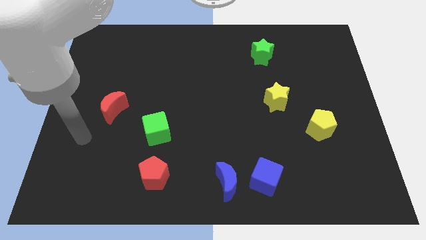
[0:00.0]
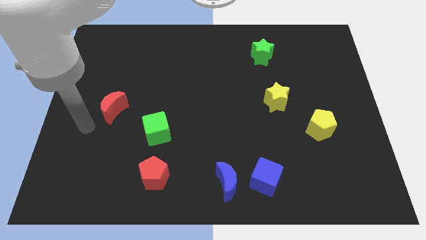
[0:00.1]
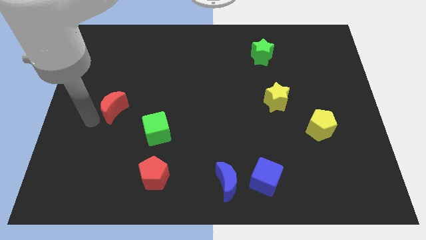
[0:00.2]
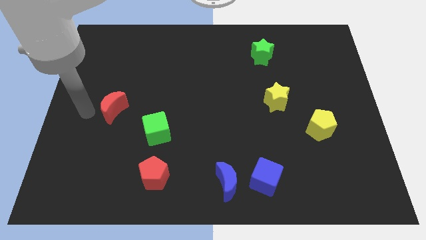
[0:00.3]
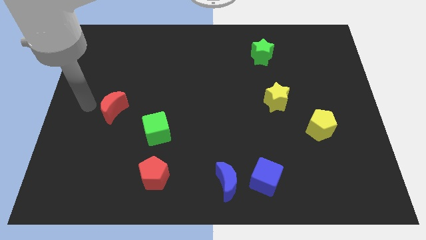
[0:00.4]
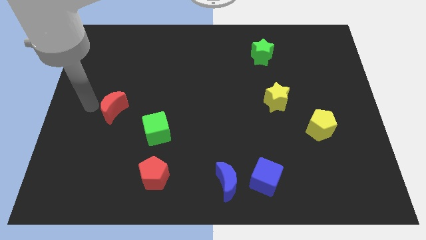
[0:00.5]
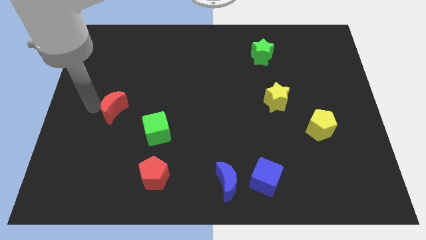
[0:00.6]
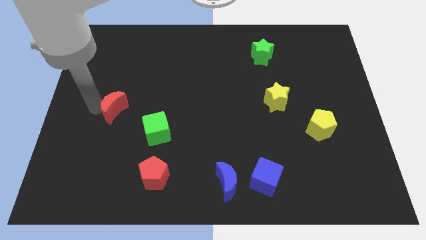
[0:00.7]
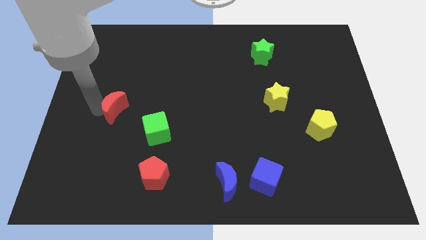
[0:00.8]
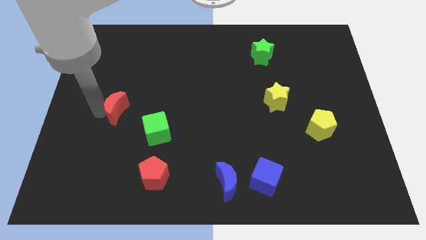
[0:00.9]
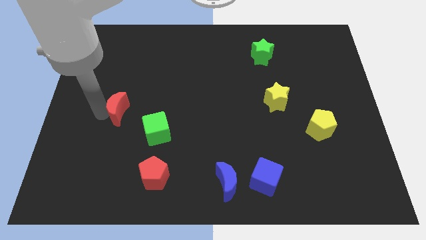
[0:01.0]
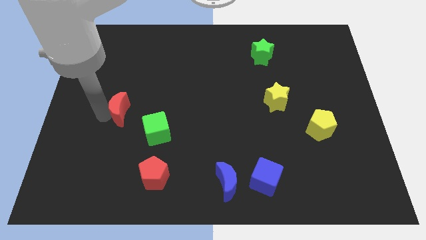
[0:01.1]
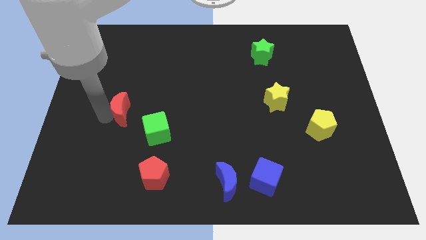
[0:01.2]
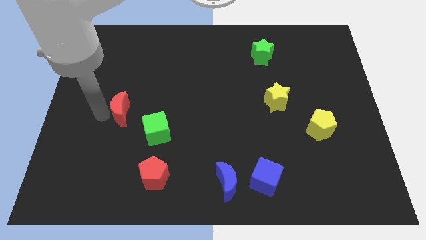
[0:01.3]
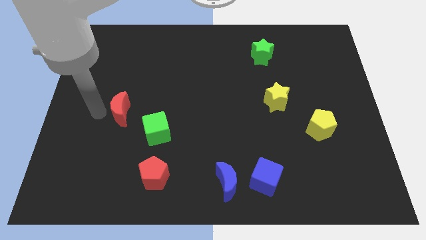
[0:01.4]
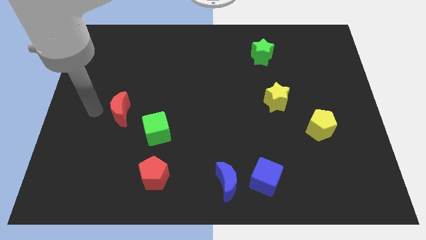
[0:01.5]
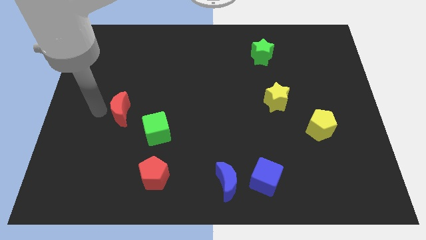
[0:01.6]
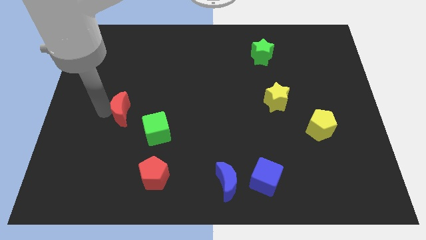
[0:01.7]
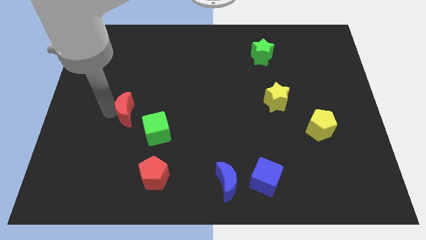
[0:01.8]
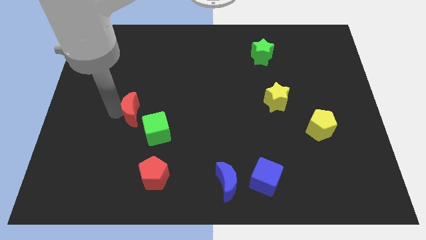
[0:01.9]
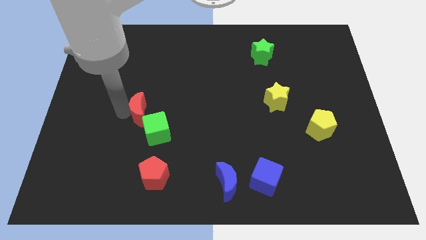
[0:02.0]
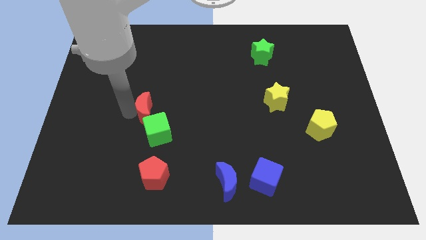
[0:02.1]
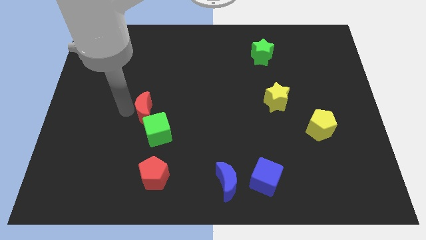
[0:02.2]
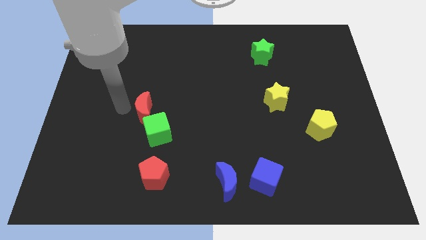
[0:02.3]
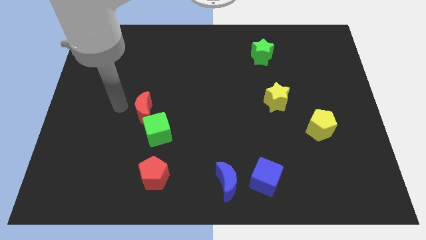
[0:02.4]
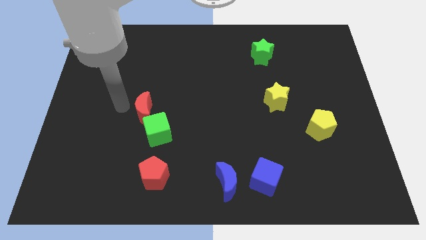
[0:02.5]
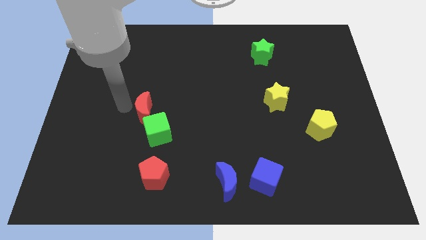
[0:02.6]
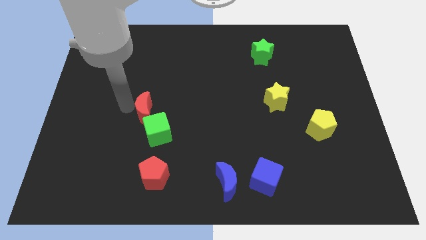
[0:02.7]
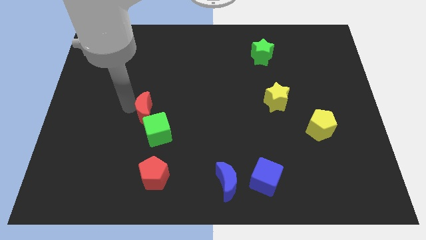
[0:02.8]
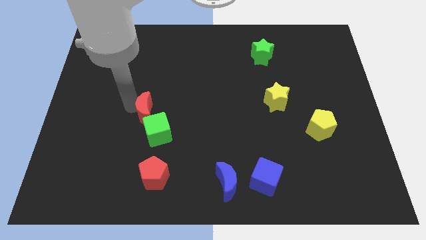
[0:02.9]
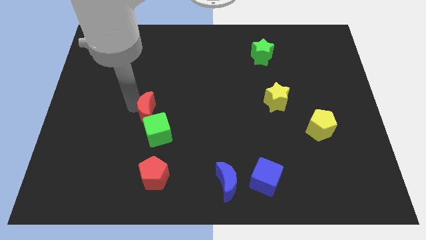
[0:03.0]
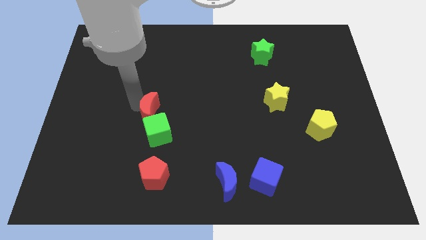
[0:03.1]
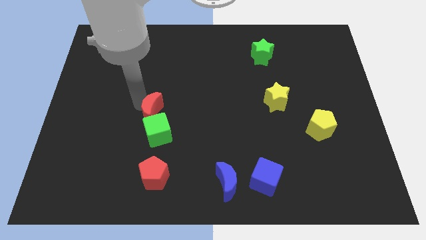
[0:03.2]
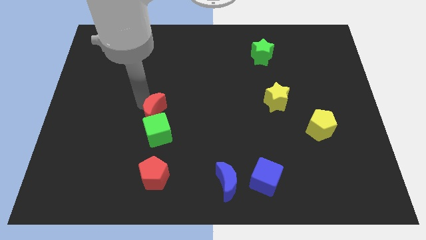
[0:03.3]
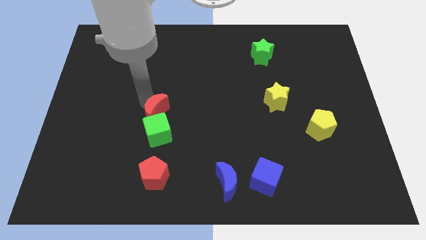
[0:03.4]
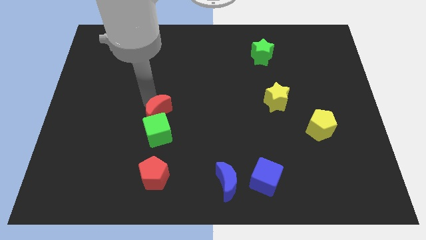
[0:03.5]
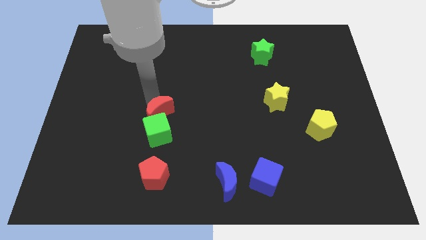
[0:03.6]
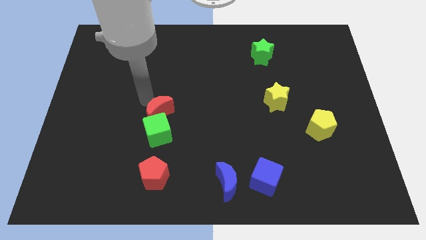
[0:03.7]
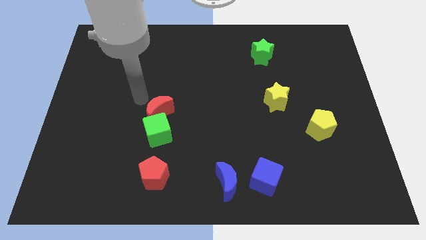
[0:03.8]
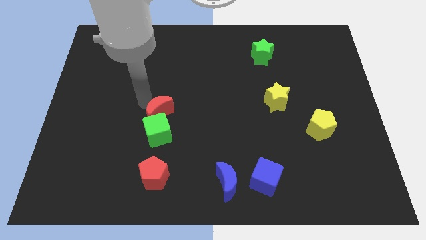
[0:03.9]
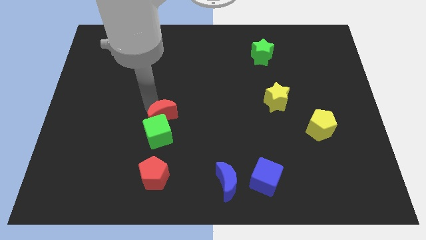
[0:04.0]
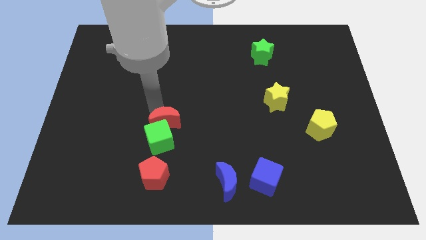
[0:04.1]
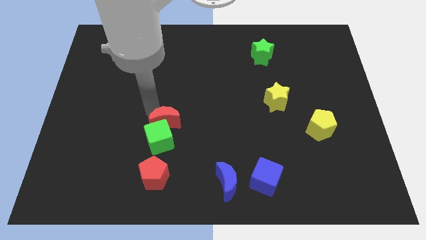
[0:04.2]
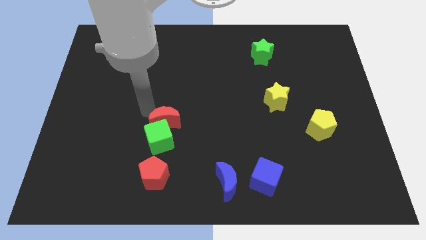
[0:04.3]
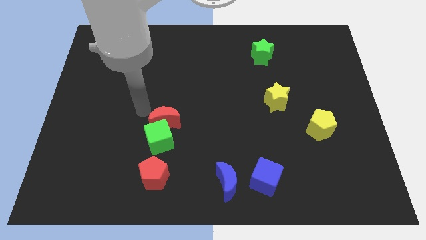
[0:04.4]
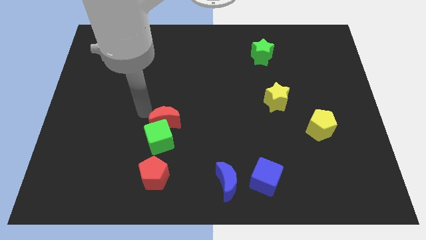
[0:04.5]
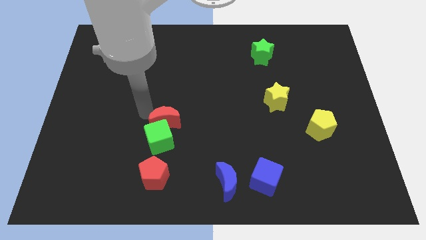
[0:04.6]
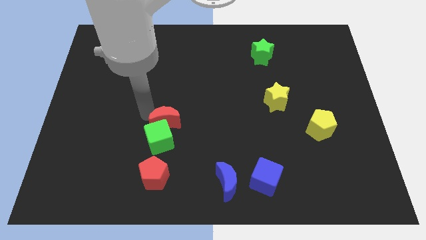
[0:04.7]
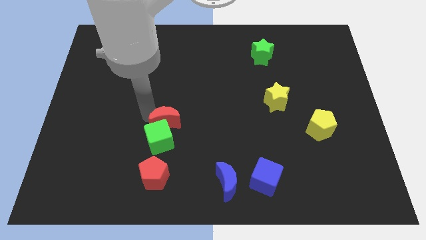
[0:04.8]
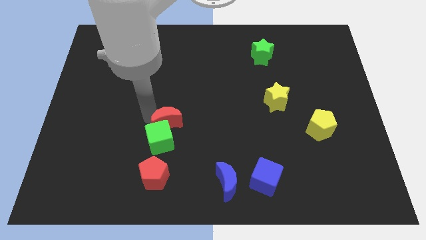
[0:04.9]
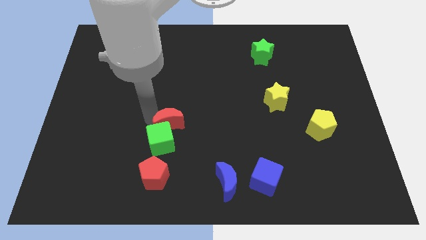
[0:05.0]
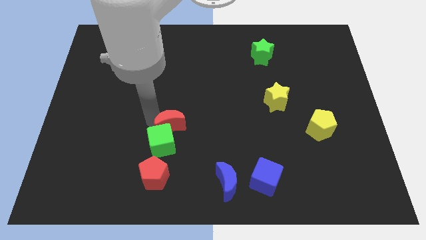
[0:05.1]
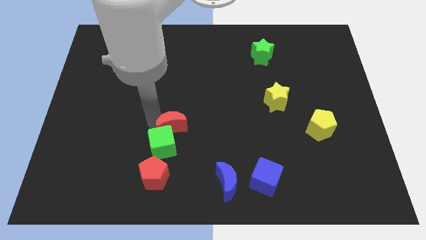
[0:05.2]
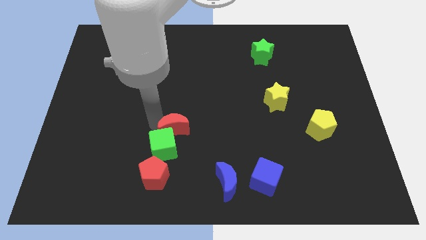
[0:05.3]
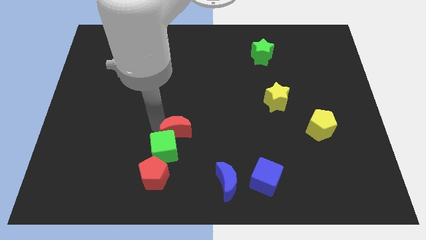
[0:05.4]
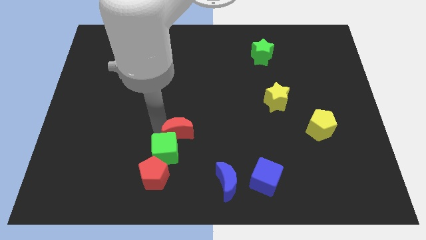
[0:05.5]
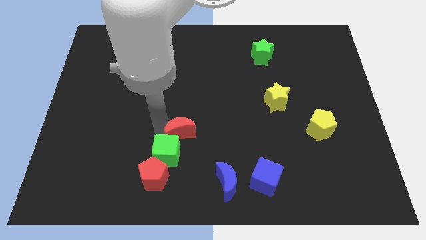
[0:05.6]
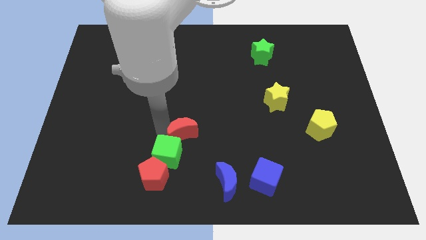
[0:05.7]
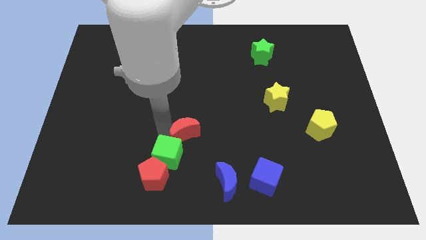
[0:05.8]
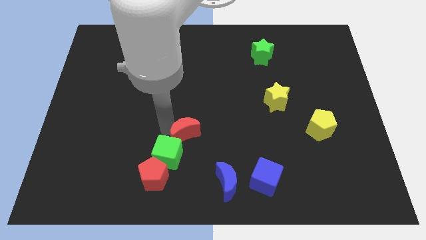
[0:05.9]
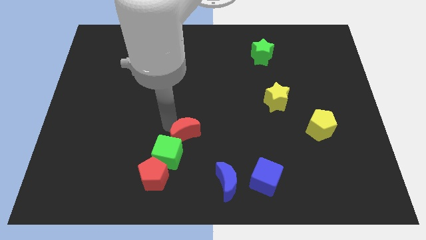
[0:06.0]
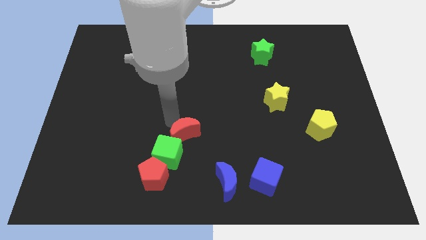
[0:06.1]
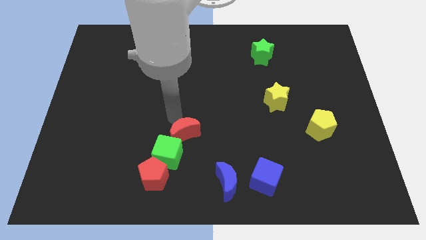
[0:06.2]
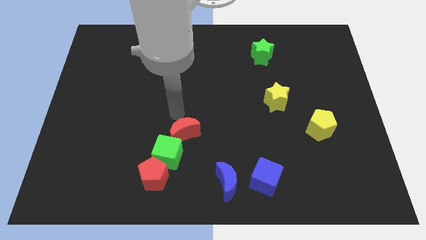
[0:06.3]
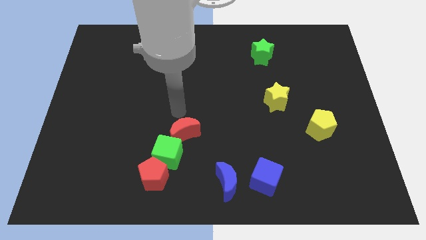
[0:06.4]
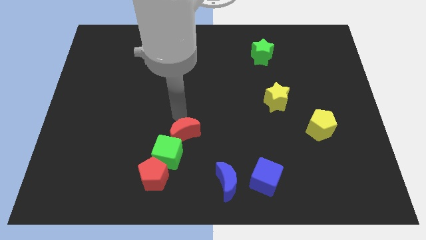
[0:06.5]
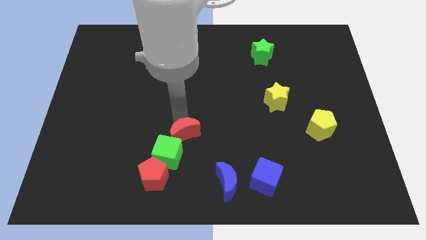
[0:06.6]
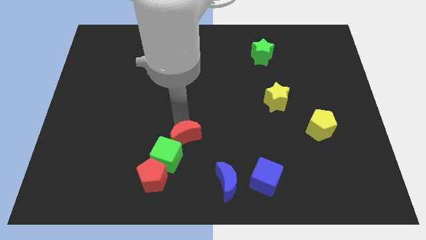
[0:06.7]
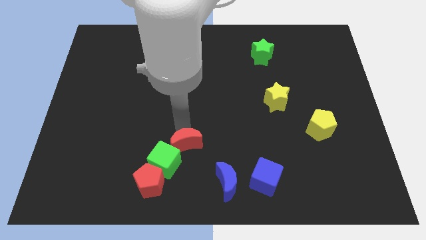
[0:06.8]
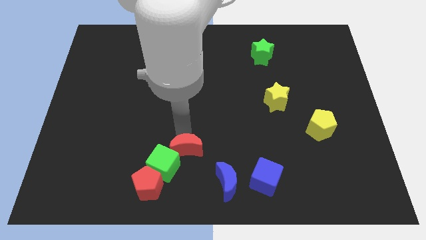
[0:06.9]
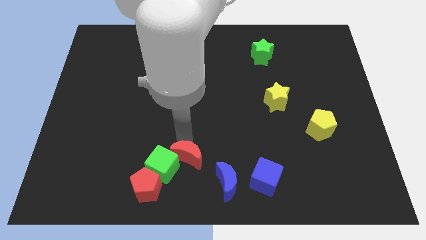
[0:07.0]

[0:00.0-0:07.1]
put the red moon to the bottom side
